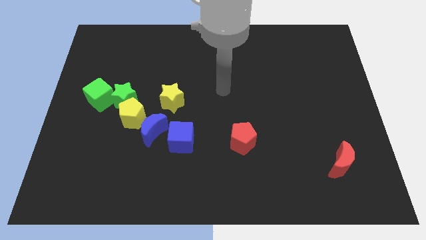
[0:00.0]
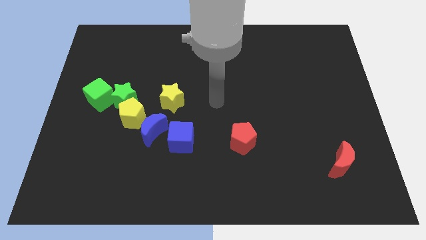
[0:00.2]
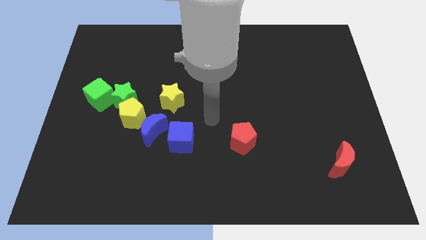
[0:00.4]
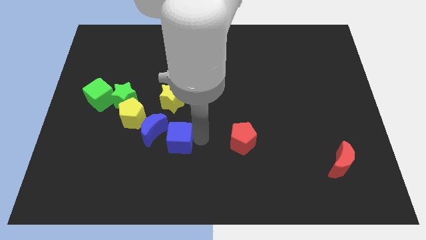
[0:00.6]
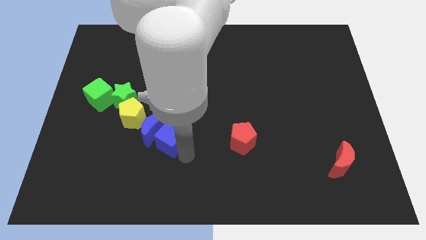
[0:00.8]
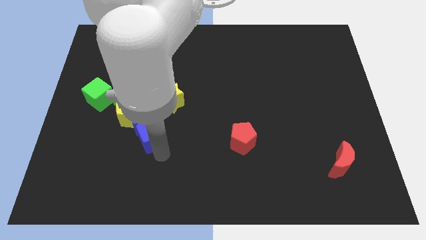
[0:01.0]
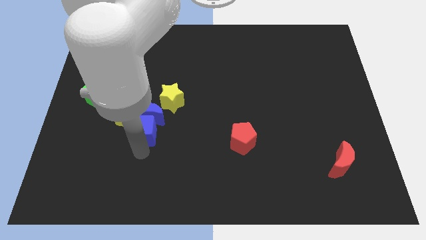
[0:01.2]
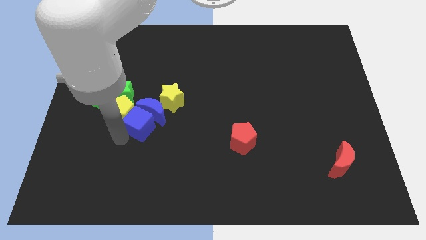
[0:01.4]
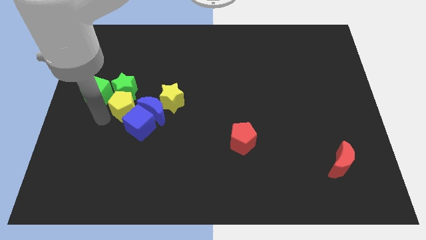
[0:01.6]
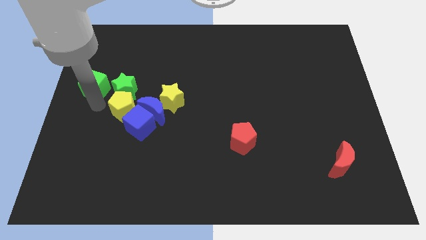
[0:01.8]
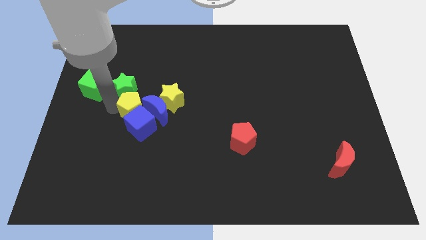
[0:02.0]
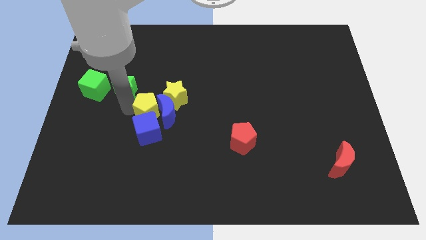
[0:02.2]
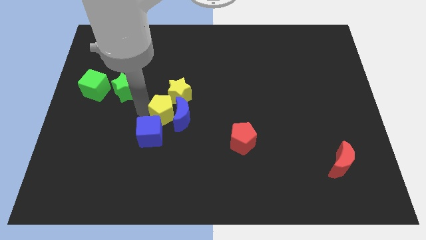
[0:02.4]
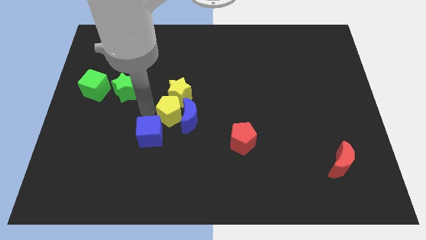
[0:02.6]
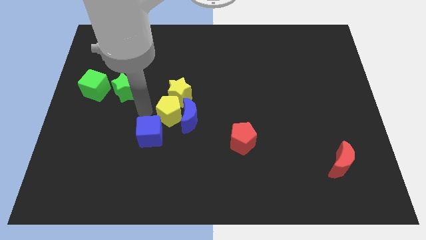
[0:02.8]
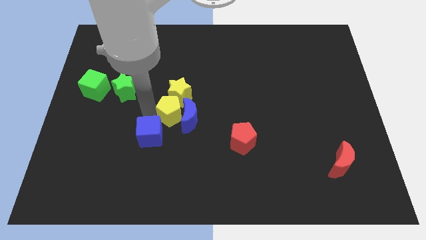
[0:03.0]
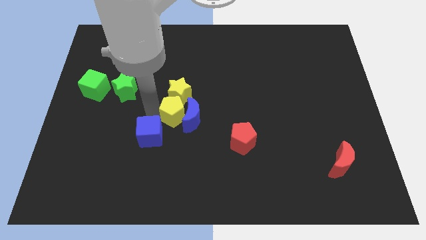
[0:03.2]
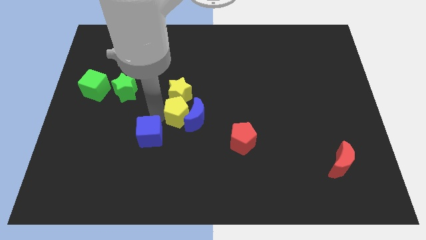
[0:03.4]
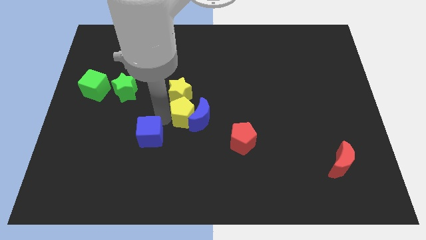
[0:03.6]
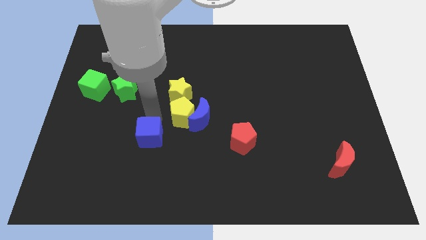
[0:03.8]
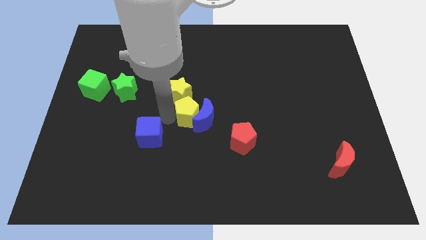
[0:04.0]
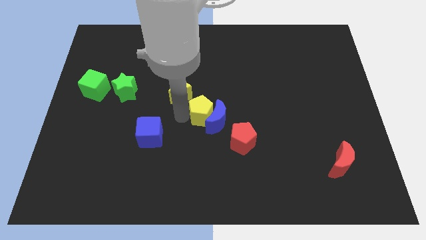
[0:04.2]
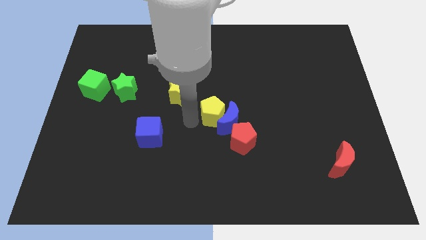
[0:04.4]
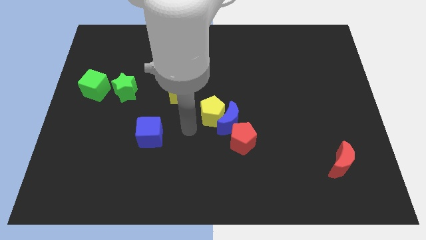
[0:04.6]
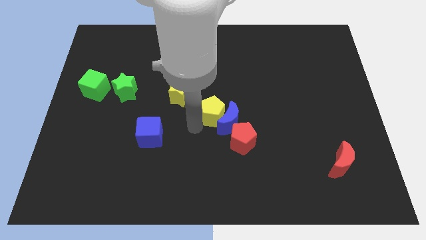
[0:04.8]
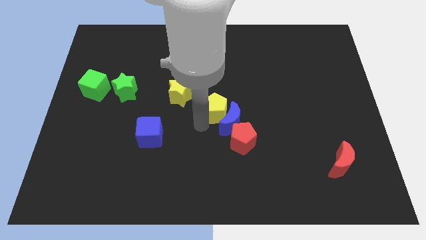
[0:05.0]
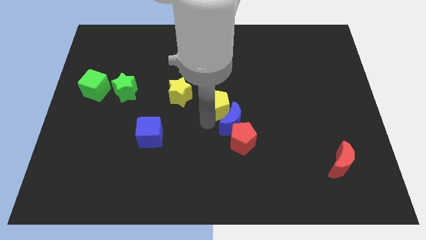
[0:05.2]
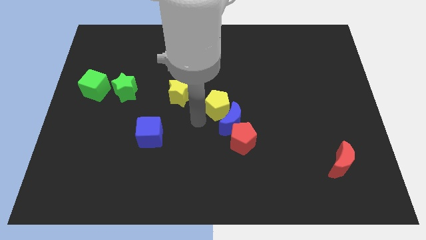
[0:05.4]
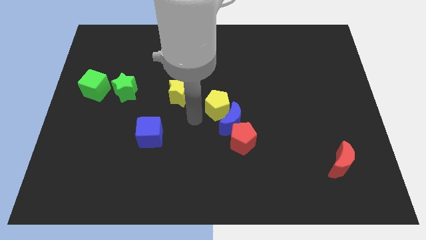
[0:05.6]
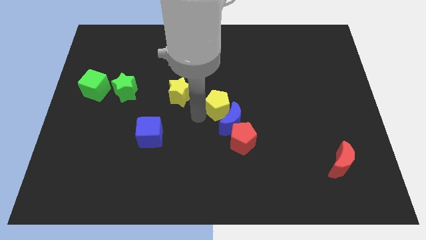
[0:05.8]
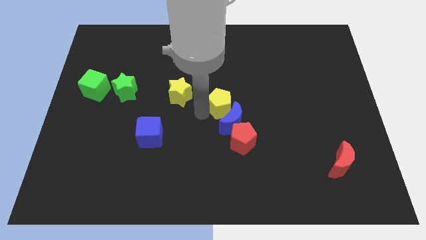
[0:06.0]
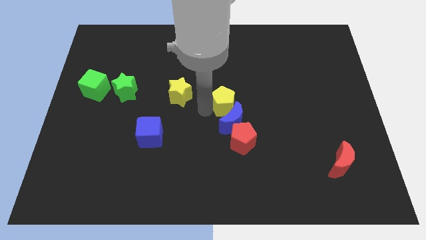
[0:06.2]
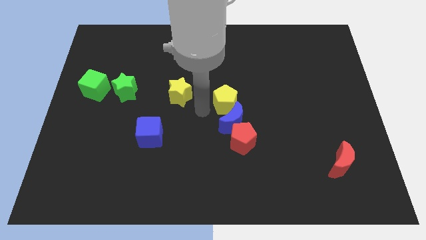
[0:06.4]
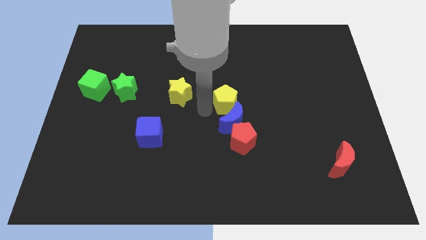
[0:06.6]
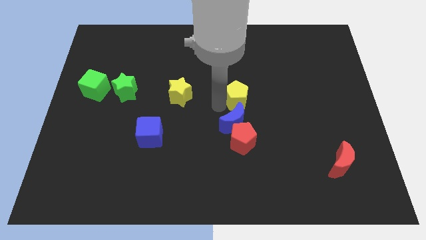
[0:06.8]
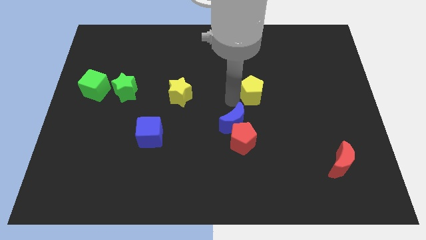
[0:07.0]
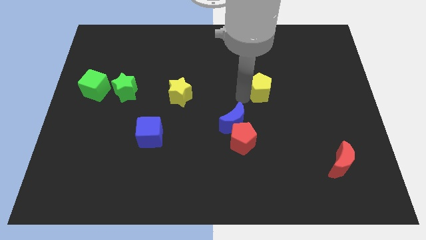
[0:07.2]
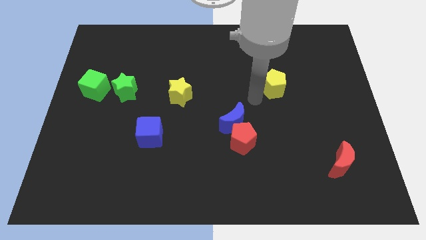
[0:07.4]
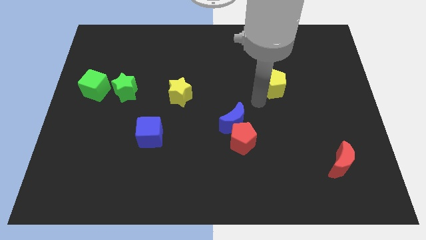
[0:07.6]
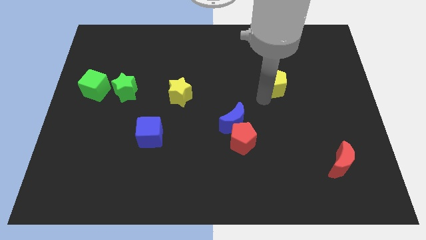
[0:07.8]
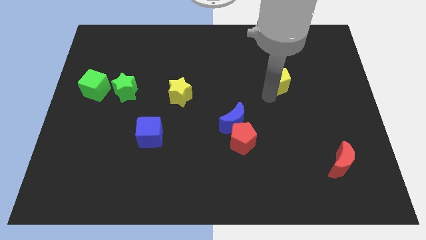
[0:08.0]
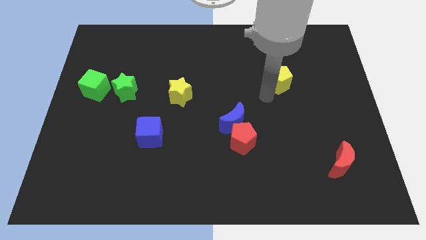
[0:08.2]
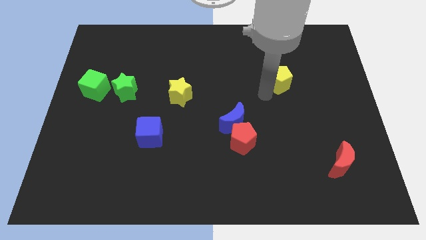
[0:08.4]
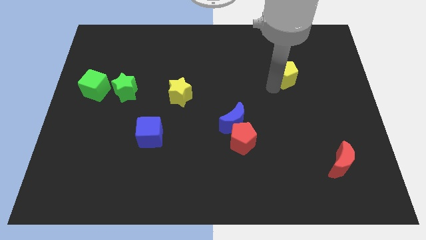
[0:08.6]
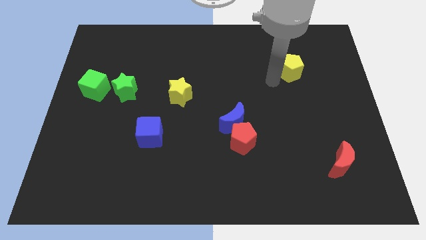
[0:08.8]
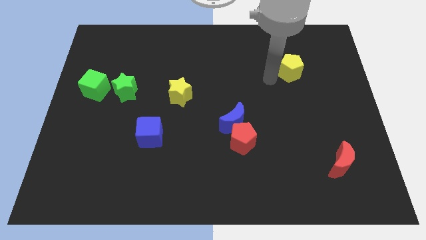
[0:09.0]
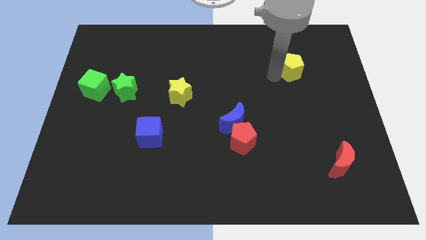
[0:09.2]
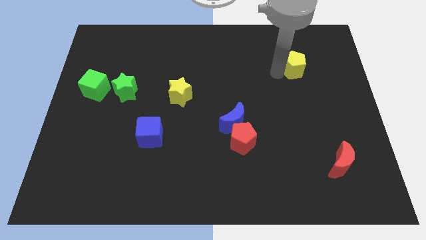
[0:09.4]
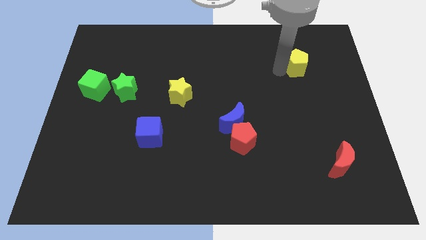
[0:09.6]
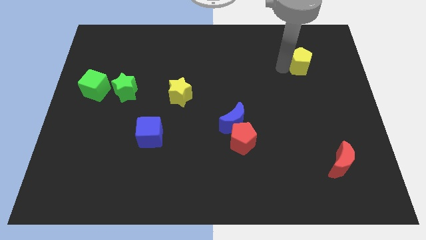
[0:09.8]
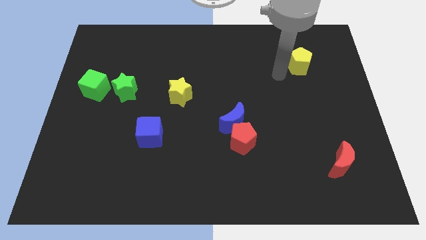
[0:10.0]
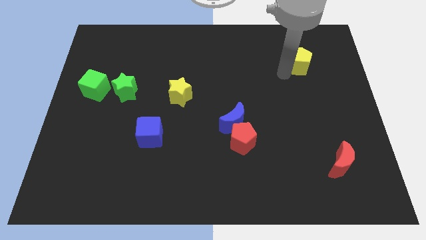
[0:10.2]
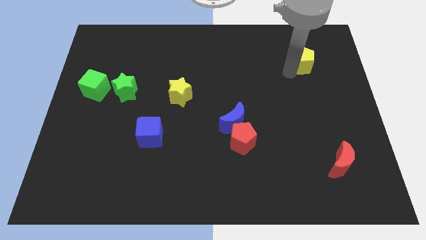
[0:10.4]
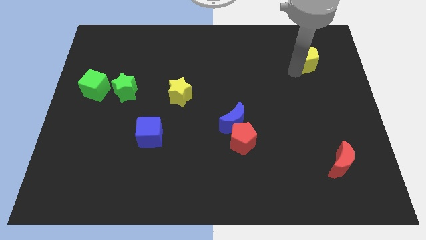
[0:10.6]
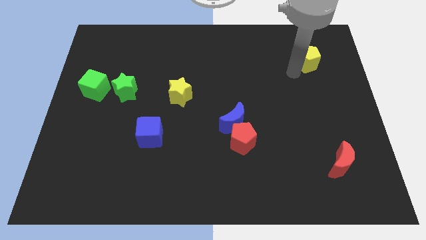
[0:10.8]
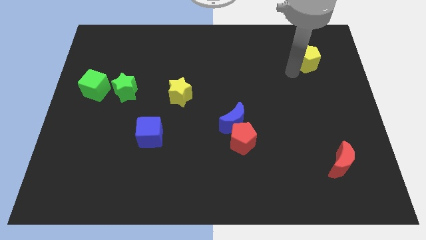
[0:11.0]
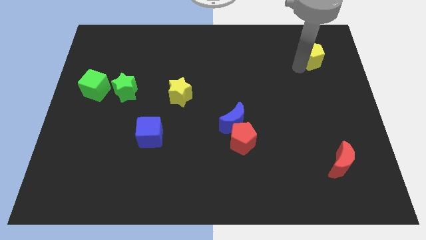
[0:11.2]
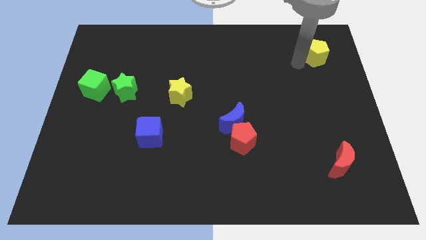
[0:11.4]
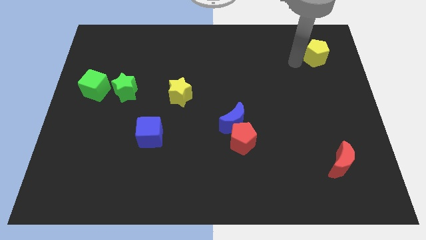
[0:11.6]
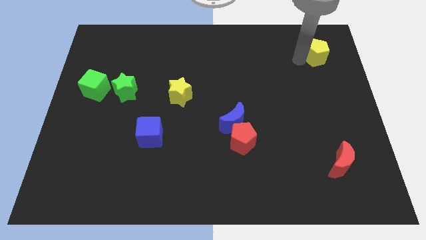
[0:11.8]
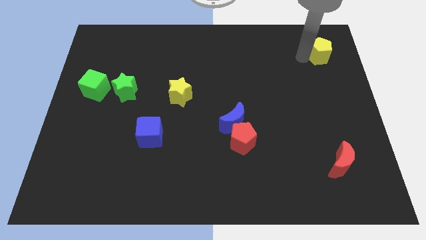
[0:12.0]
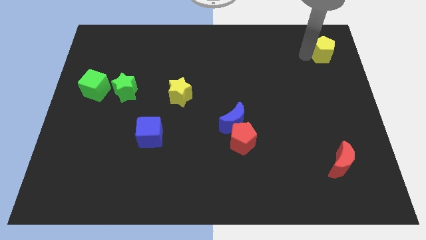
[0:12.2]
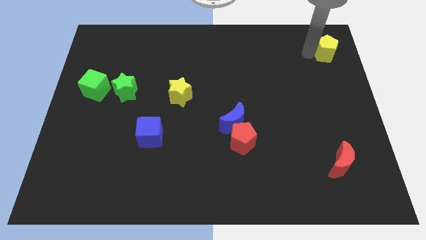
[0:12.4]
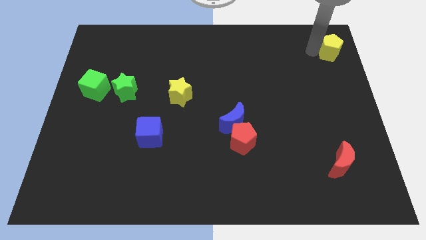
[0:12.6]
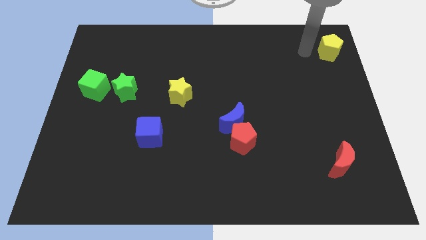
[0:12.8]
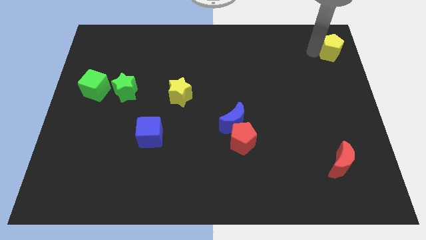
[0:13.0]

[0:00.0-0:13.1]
put the yellow pentagon to the top right

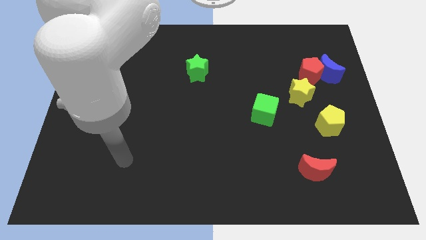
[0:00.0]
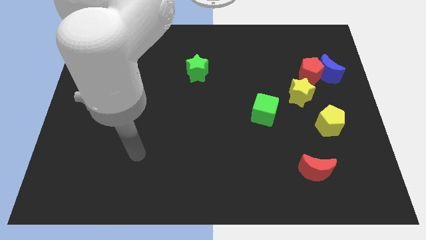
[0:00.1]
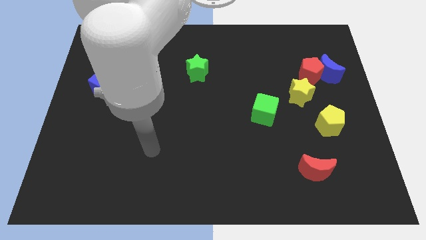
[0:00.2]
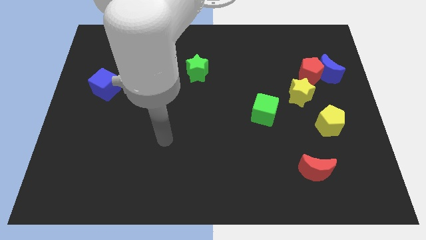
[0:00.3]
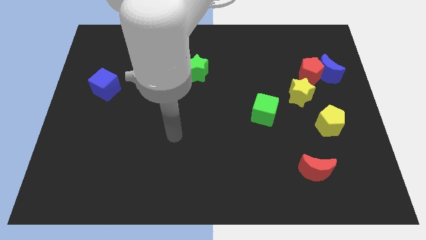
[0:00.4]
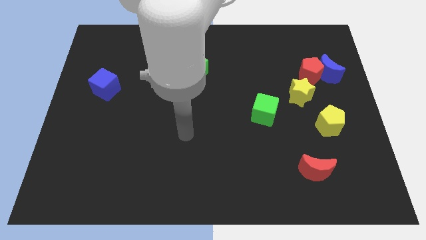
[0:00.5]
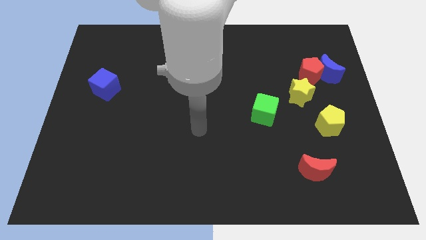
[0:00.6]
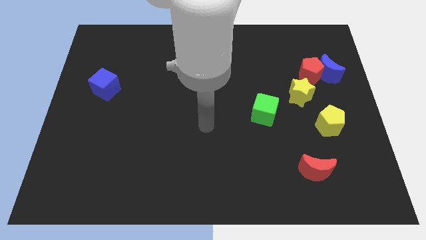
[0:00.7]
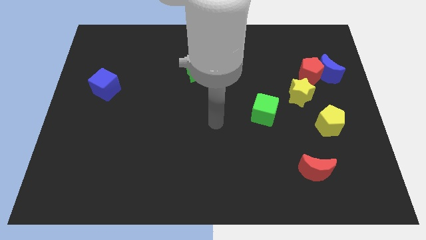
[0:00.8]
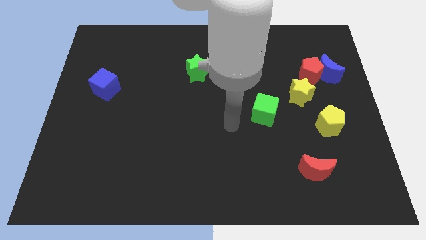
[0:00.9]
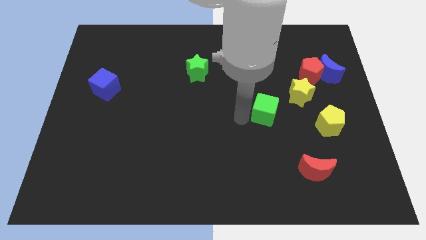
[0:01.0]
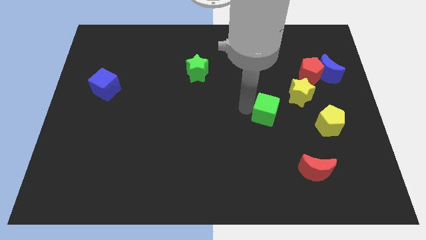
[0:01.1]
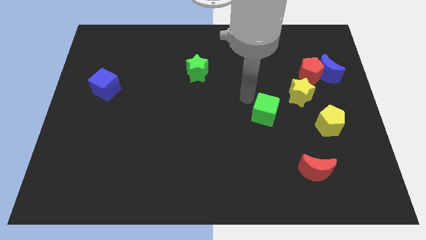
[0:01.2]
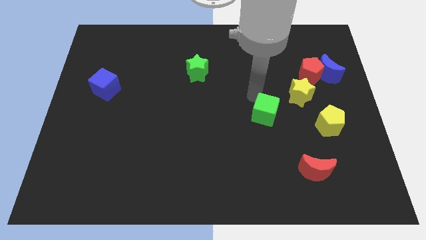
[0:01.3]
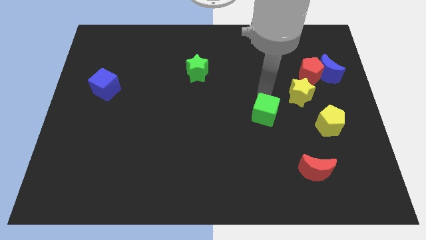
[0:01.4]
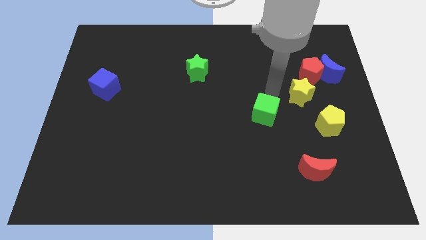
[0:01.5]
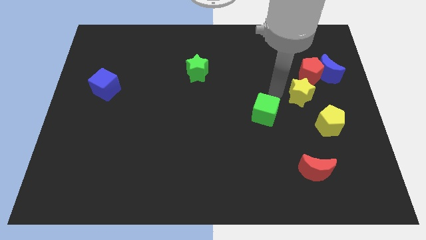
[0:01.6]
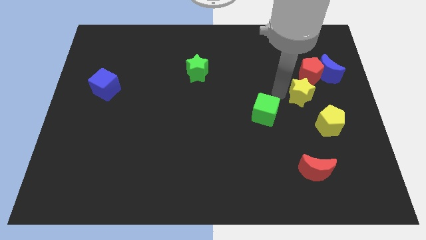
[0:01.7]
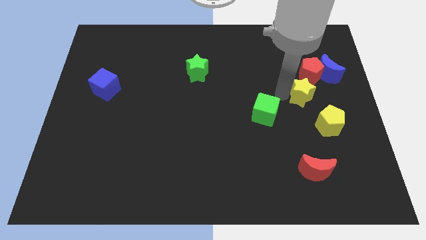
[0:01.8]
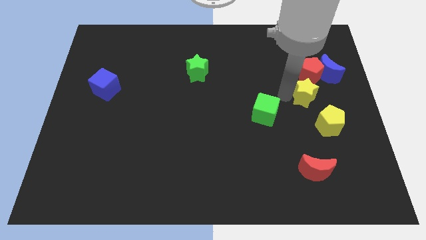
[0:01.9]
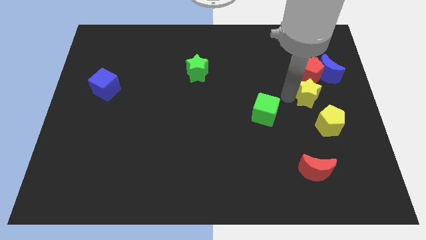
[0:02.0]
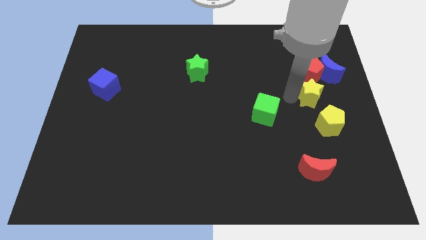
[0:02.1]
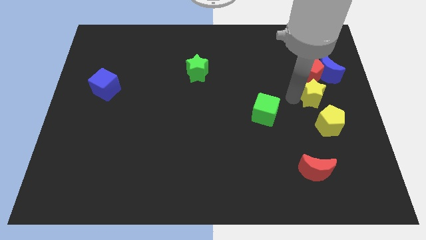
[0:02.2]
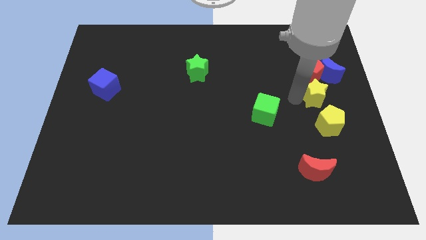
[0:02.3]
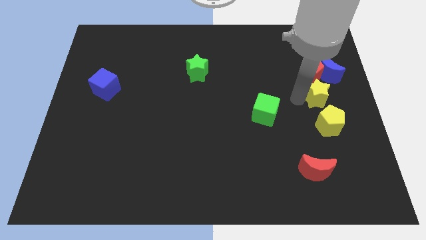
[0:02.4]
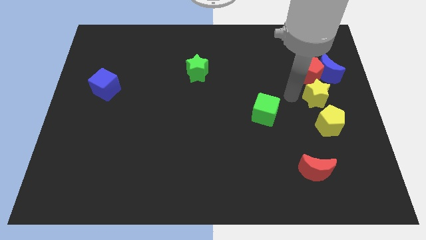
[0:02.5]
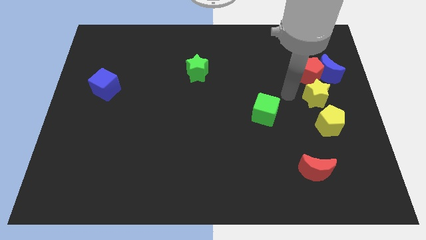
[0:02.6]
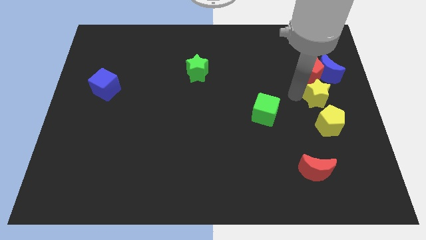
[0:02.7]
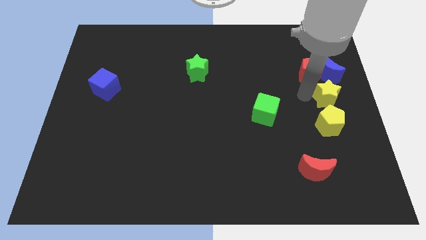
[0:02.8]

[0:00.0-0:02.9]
slide the yellow star to the right side
